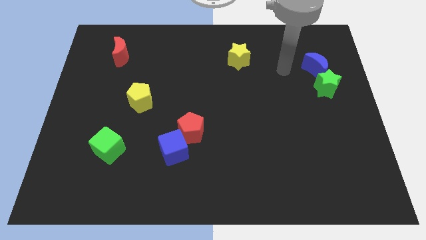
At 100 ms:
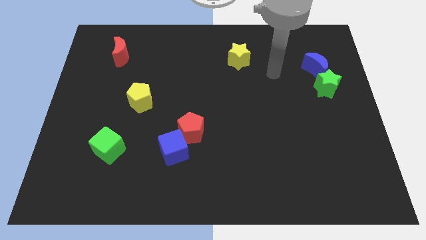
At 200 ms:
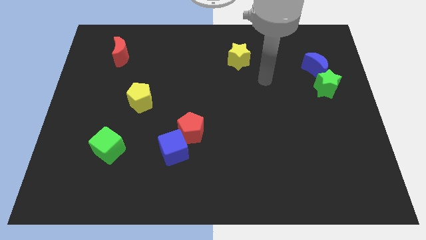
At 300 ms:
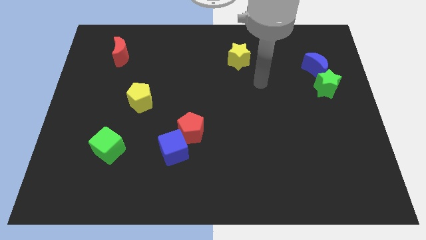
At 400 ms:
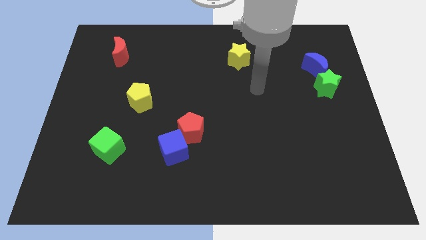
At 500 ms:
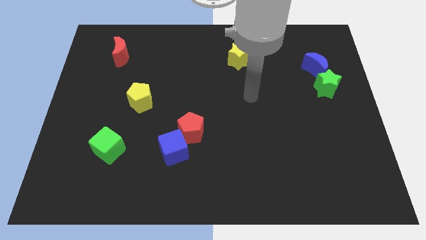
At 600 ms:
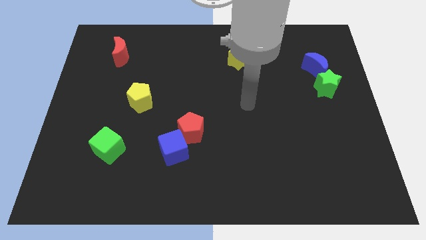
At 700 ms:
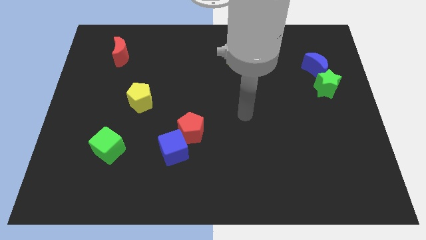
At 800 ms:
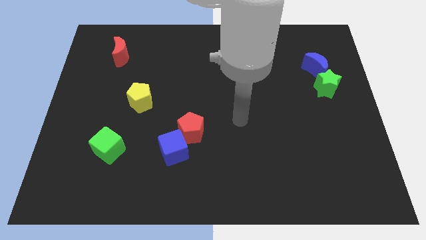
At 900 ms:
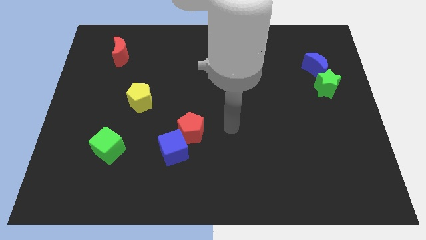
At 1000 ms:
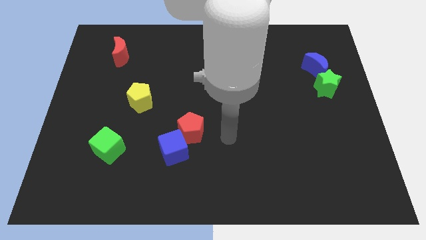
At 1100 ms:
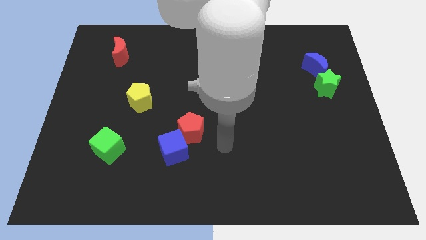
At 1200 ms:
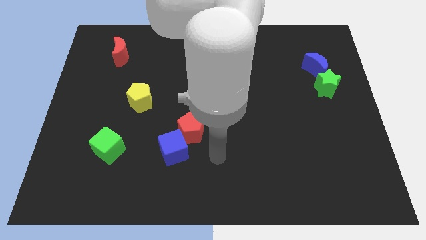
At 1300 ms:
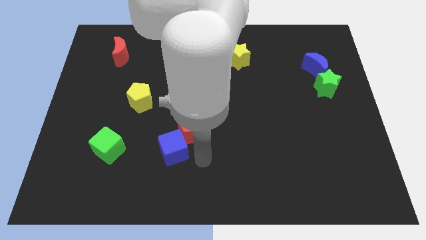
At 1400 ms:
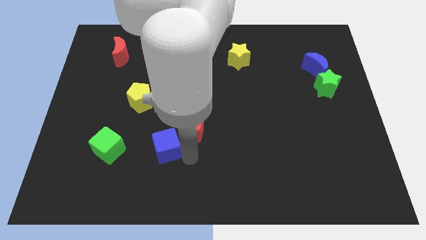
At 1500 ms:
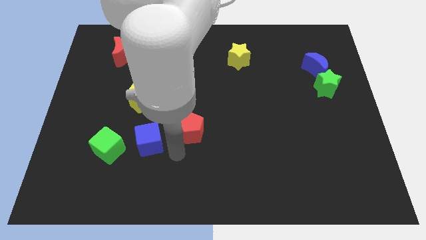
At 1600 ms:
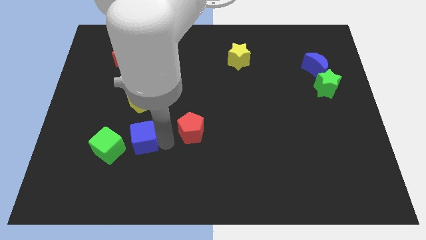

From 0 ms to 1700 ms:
pull the red pentagon apart from the blue cube

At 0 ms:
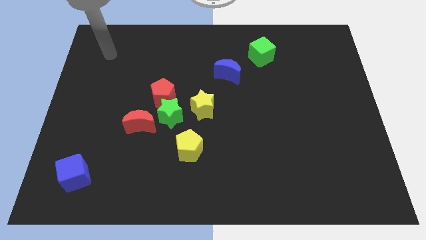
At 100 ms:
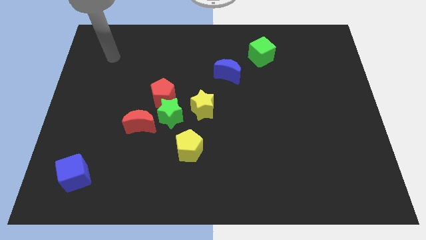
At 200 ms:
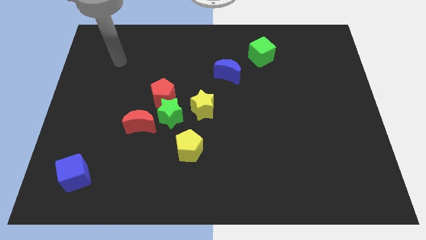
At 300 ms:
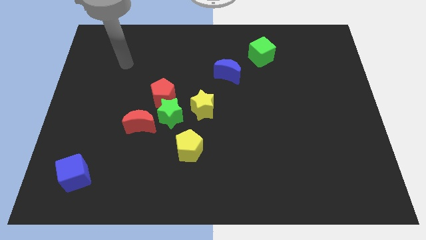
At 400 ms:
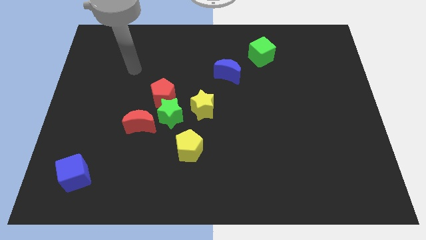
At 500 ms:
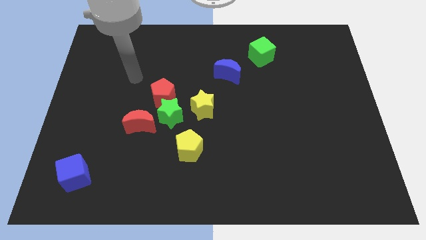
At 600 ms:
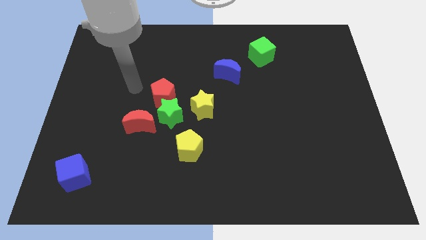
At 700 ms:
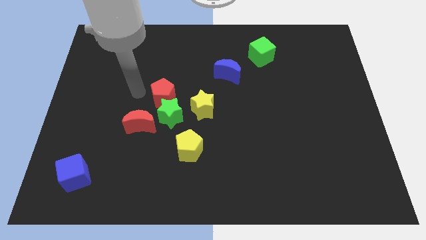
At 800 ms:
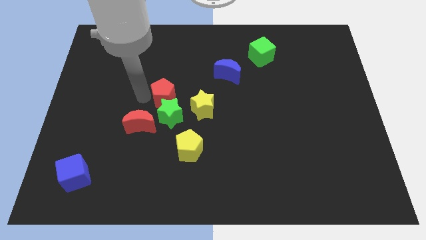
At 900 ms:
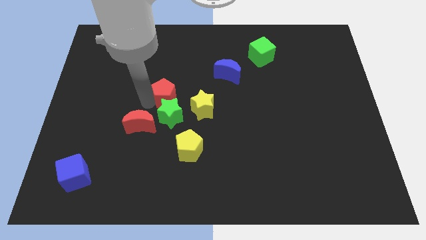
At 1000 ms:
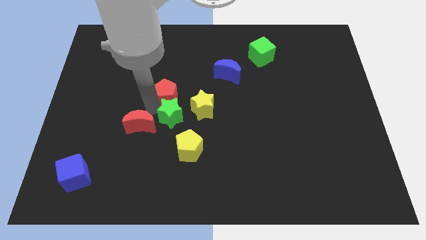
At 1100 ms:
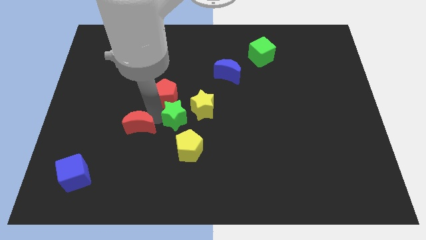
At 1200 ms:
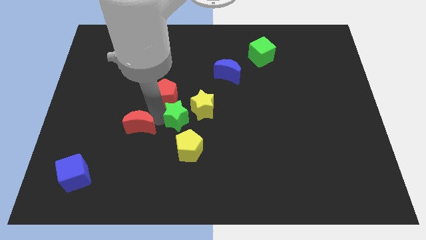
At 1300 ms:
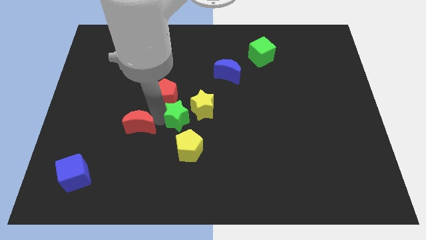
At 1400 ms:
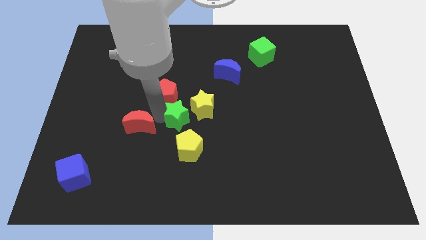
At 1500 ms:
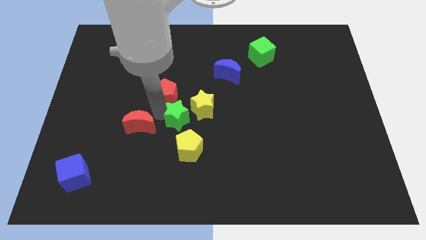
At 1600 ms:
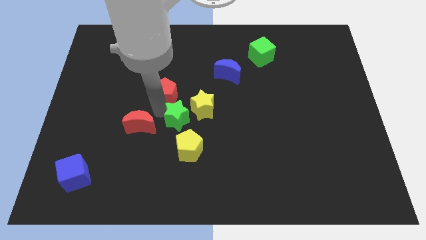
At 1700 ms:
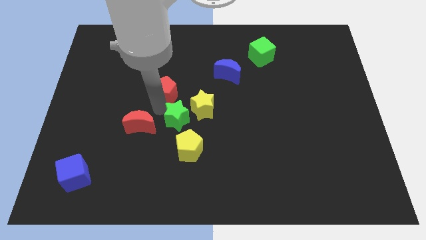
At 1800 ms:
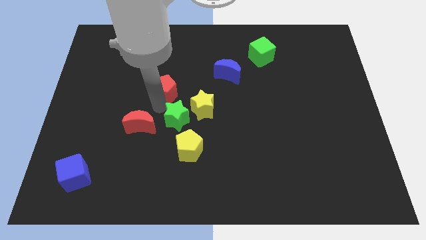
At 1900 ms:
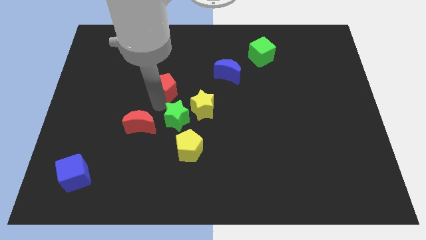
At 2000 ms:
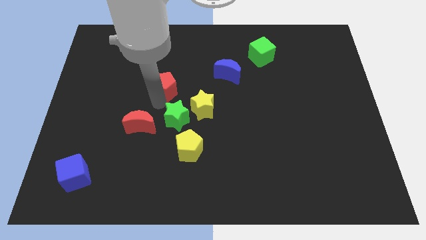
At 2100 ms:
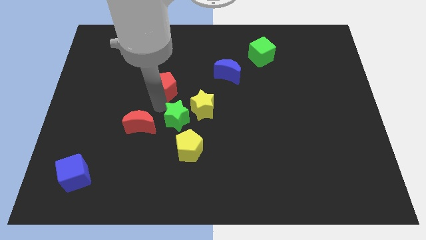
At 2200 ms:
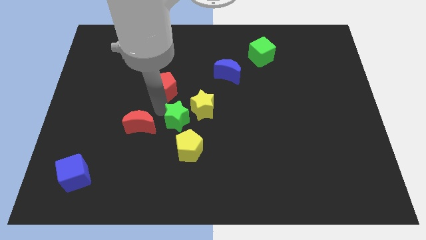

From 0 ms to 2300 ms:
move the red pentagon away from the green star and red moon

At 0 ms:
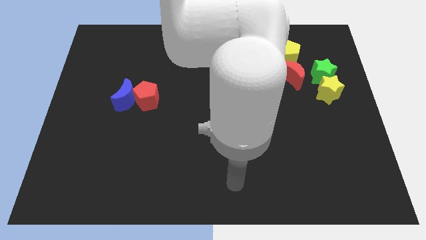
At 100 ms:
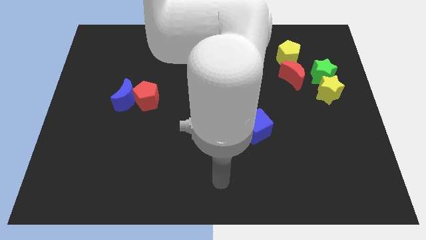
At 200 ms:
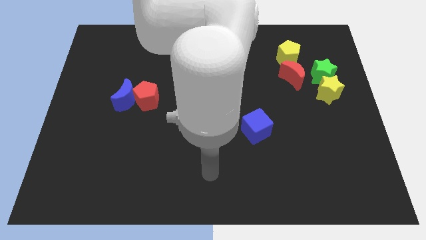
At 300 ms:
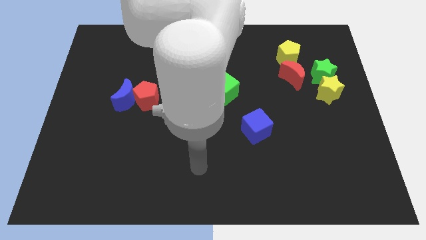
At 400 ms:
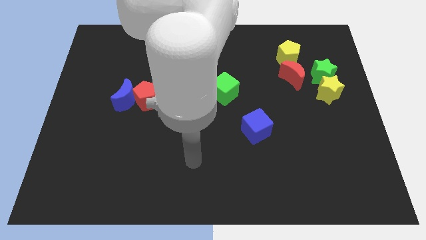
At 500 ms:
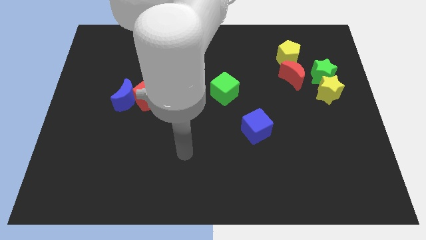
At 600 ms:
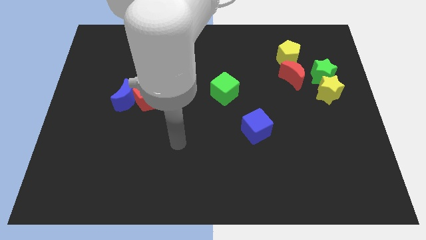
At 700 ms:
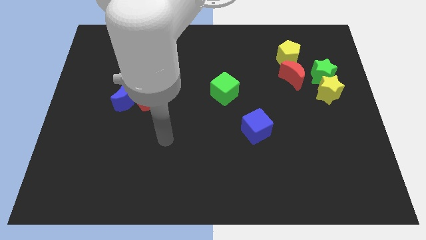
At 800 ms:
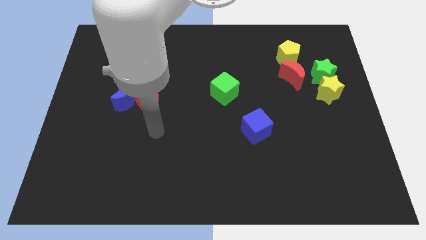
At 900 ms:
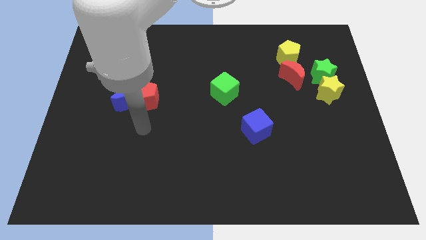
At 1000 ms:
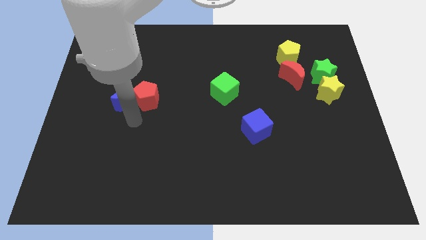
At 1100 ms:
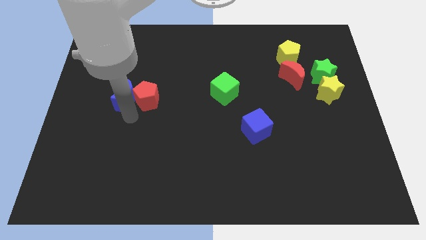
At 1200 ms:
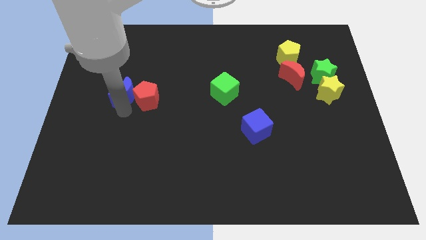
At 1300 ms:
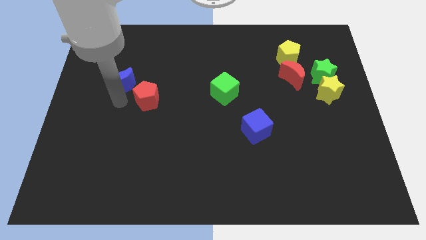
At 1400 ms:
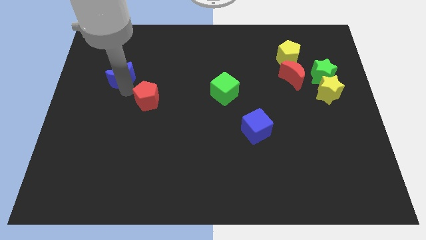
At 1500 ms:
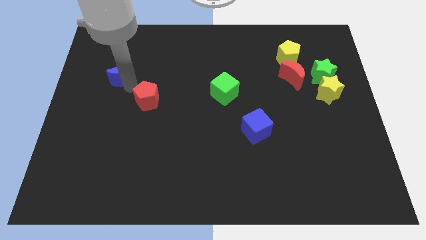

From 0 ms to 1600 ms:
pull the red pentagon apart from the blue moon

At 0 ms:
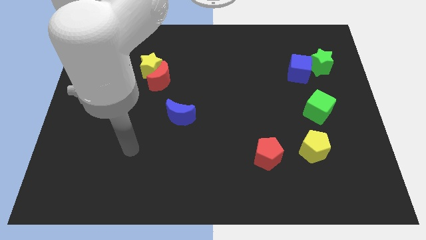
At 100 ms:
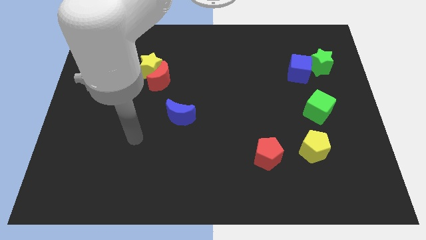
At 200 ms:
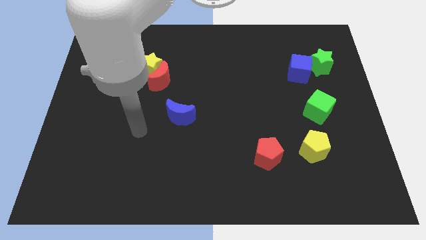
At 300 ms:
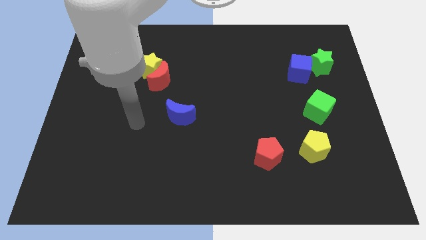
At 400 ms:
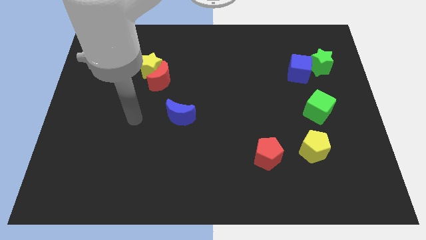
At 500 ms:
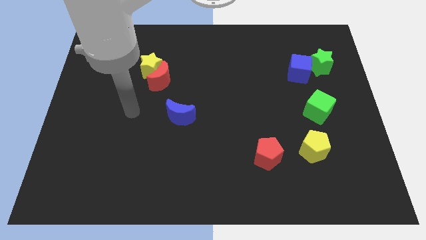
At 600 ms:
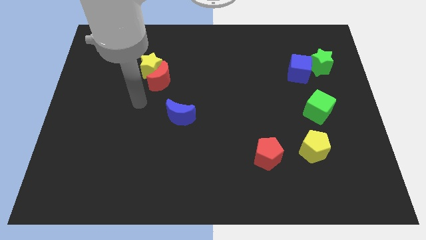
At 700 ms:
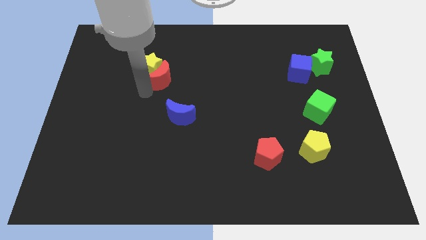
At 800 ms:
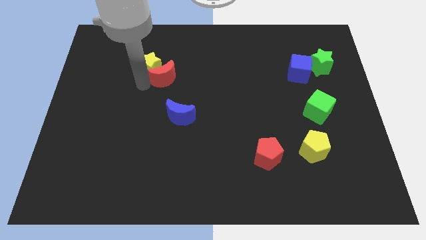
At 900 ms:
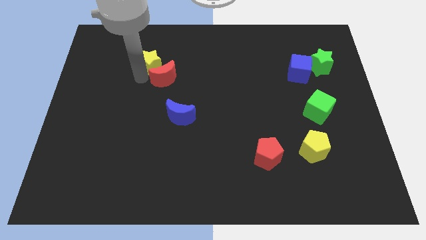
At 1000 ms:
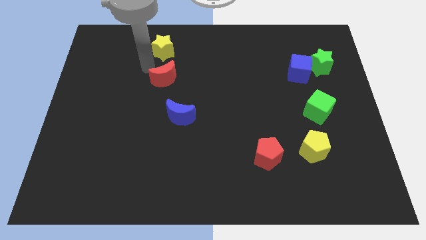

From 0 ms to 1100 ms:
move the red moon away from the yellow star

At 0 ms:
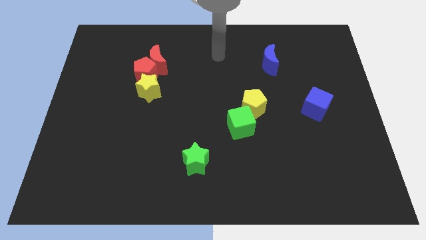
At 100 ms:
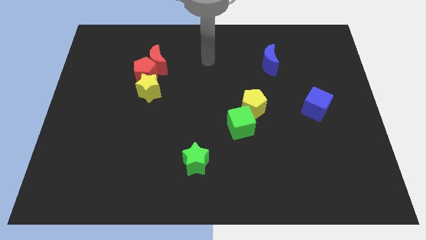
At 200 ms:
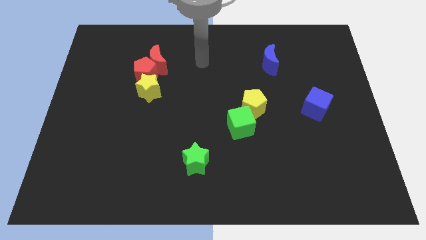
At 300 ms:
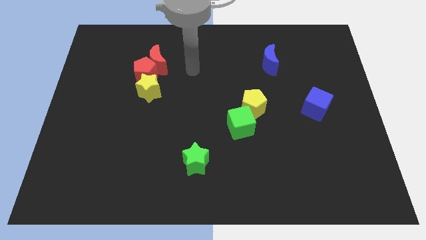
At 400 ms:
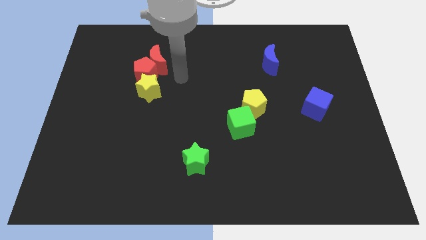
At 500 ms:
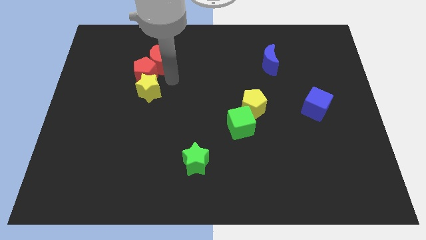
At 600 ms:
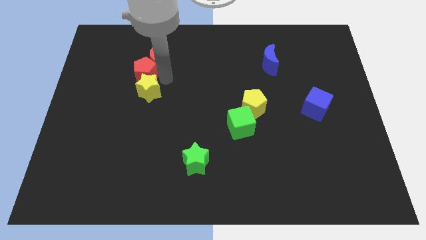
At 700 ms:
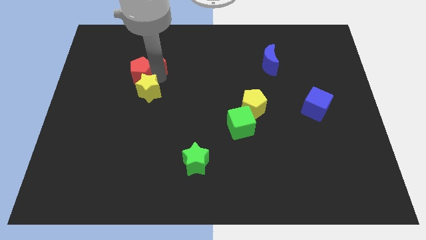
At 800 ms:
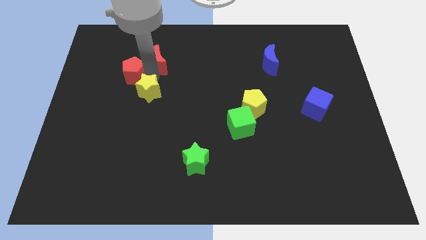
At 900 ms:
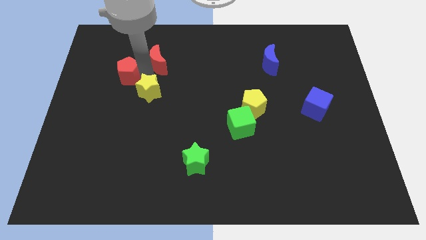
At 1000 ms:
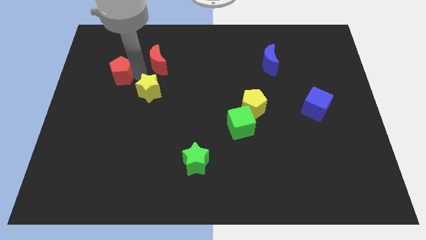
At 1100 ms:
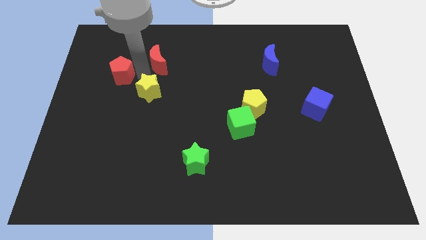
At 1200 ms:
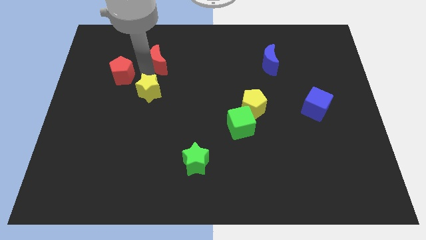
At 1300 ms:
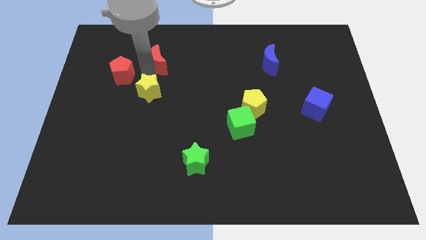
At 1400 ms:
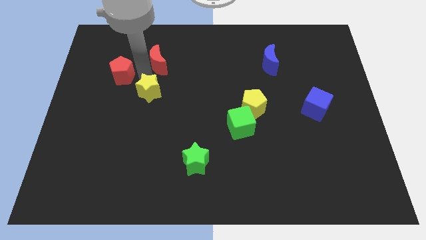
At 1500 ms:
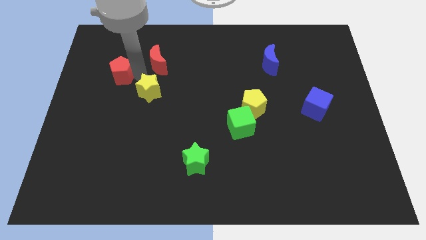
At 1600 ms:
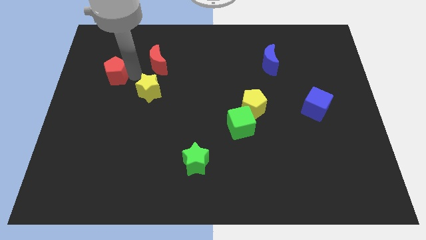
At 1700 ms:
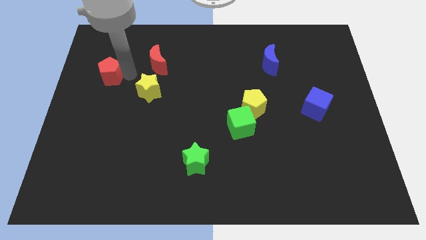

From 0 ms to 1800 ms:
pull the red pentagon apart from the red moon and yellow star

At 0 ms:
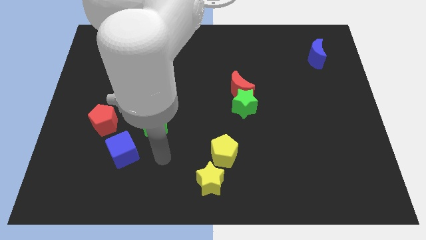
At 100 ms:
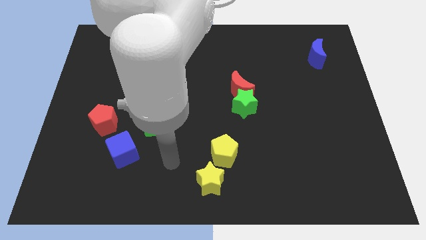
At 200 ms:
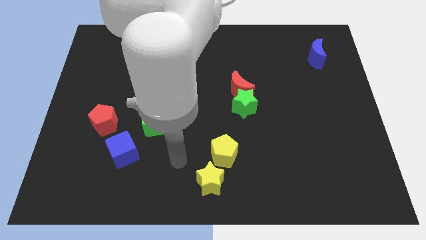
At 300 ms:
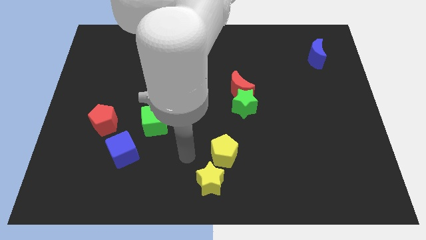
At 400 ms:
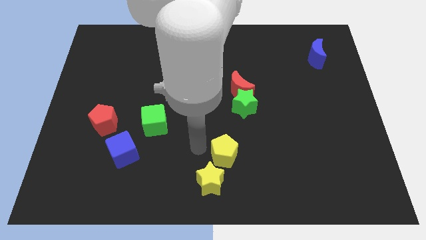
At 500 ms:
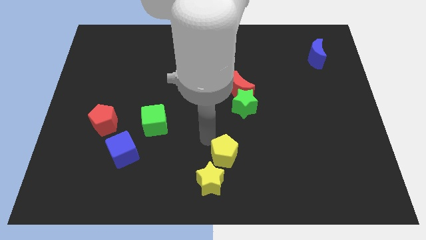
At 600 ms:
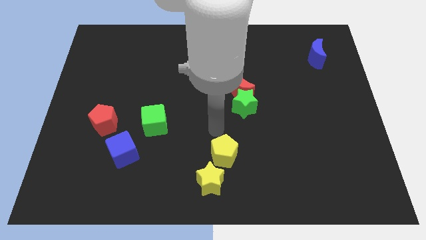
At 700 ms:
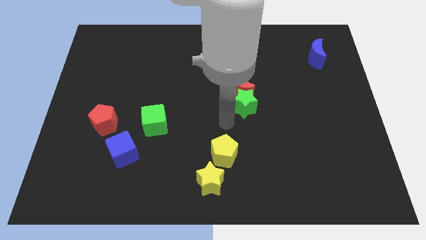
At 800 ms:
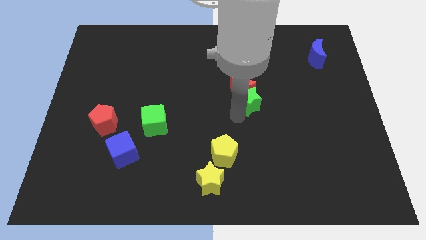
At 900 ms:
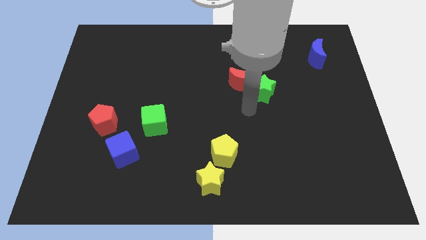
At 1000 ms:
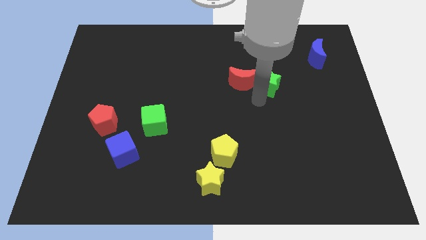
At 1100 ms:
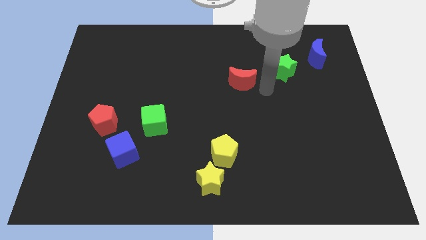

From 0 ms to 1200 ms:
move the red moon away from the green star
